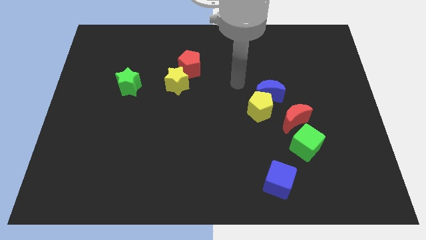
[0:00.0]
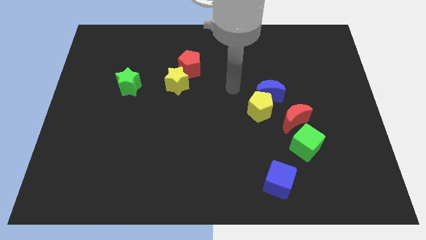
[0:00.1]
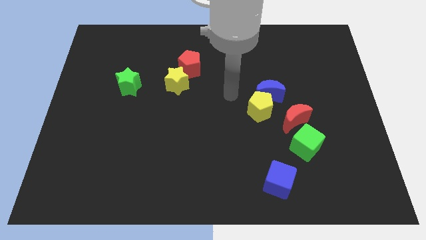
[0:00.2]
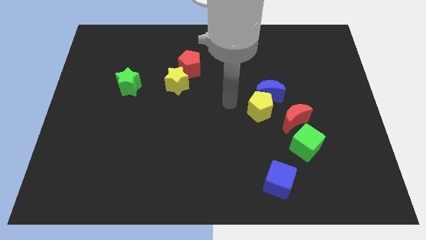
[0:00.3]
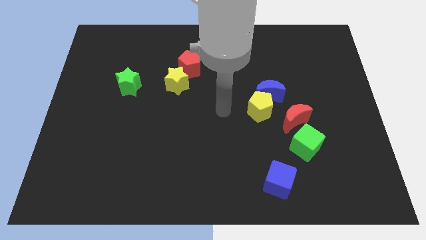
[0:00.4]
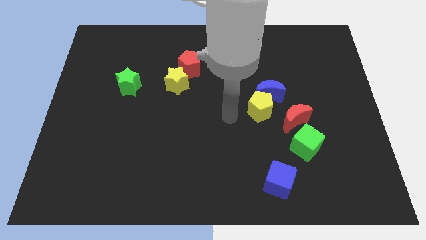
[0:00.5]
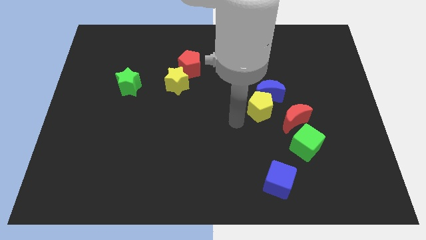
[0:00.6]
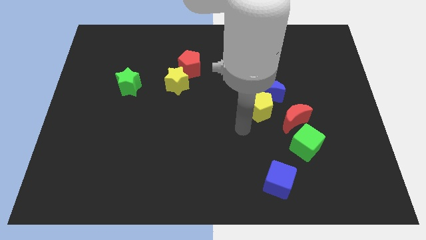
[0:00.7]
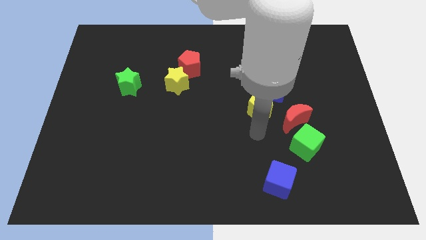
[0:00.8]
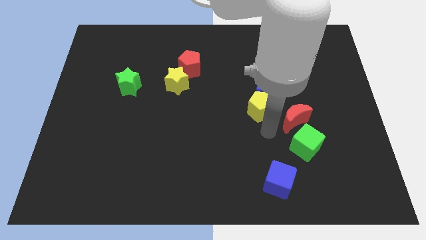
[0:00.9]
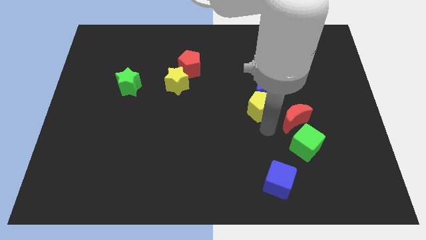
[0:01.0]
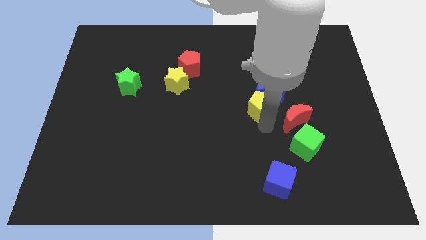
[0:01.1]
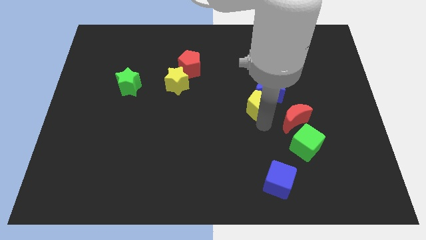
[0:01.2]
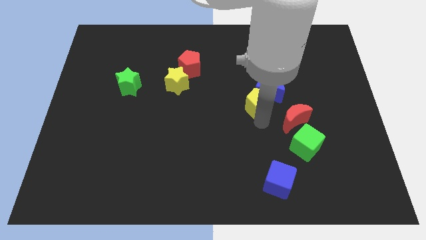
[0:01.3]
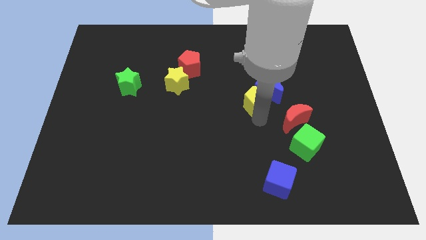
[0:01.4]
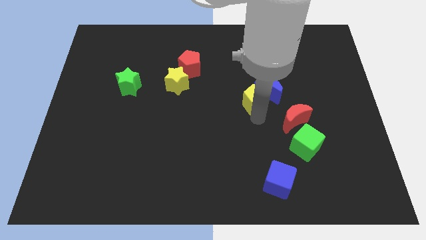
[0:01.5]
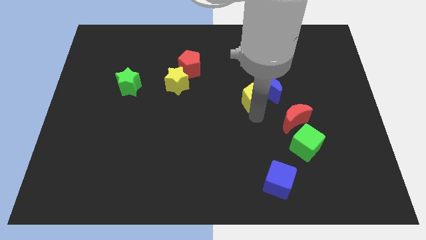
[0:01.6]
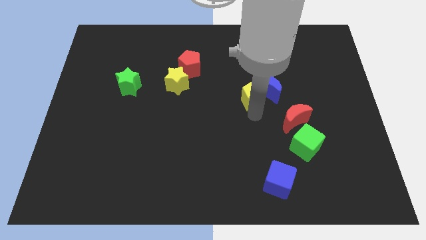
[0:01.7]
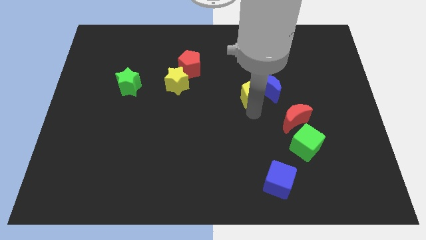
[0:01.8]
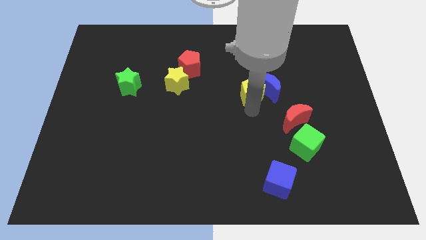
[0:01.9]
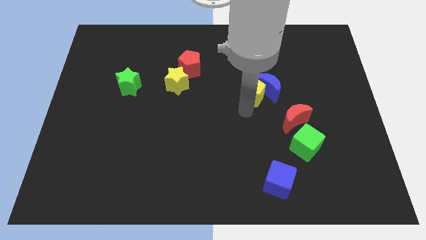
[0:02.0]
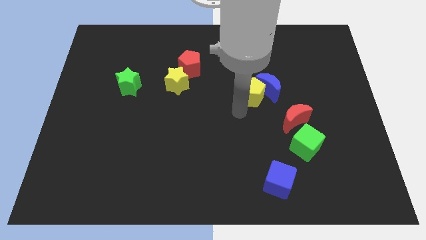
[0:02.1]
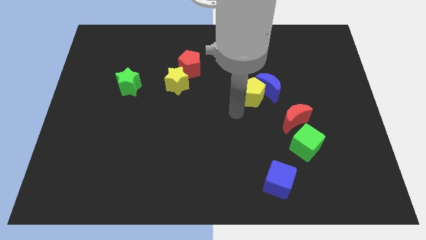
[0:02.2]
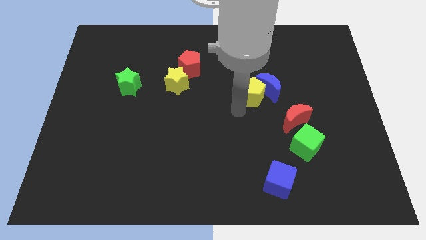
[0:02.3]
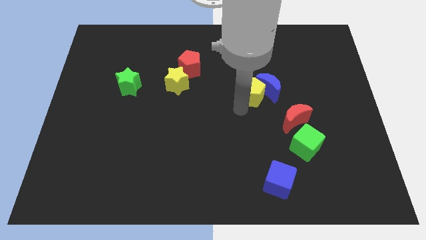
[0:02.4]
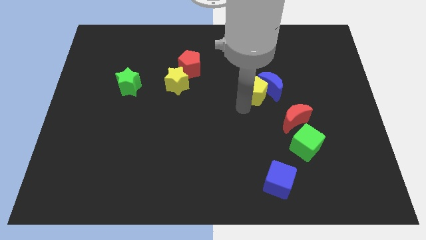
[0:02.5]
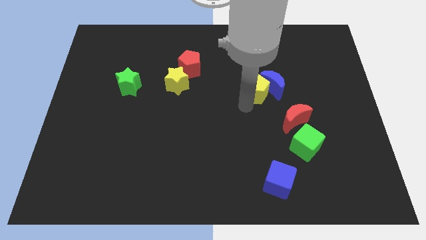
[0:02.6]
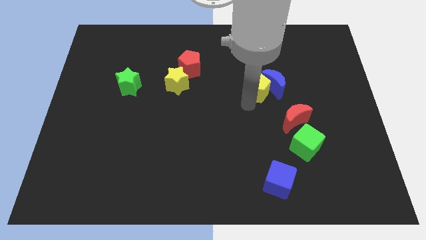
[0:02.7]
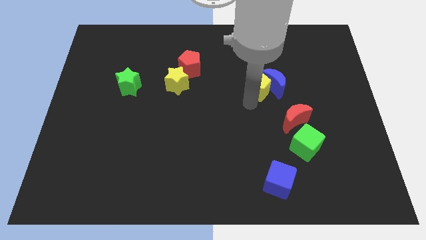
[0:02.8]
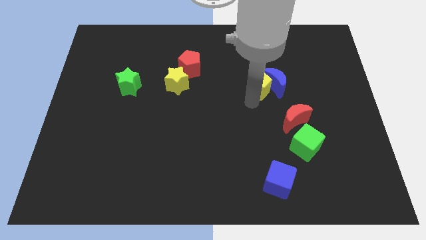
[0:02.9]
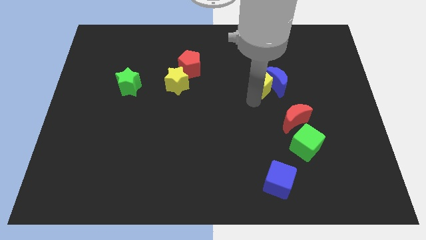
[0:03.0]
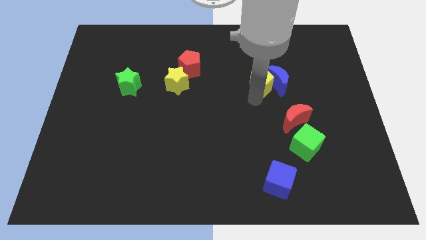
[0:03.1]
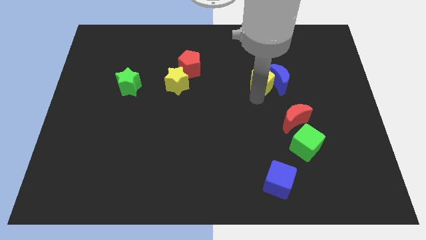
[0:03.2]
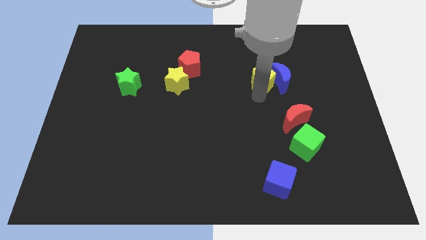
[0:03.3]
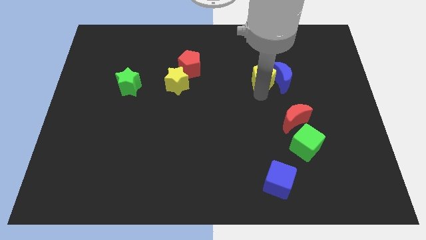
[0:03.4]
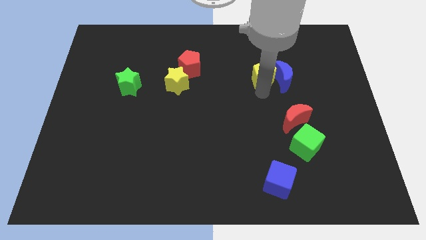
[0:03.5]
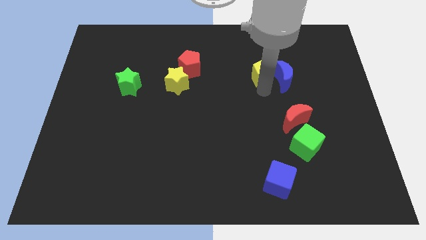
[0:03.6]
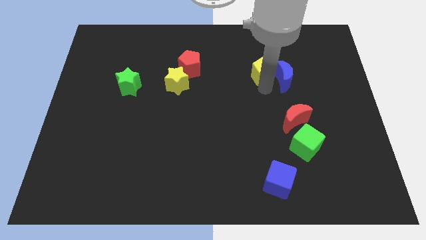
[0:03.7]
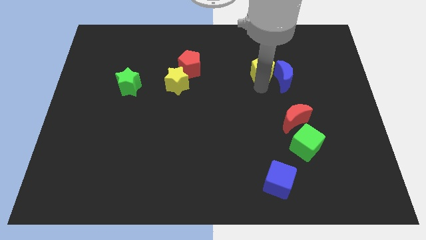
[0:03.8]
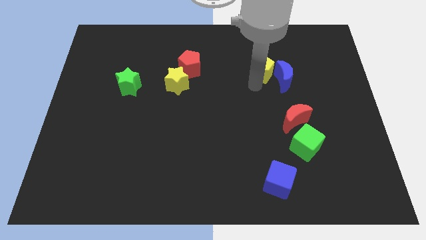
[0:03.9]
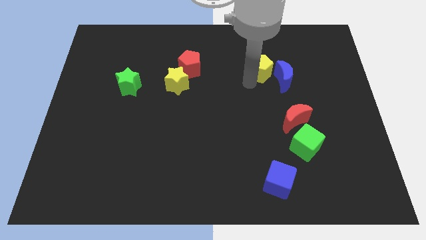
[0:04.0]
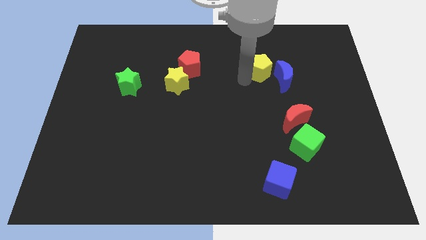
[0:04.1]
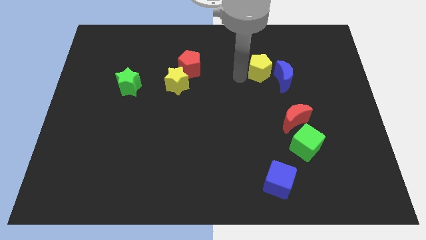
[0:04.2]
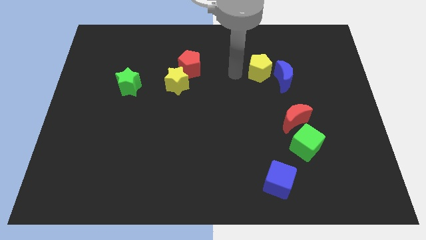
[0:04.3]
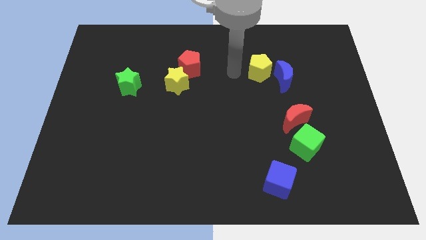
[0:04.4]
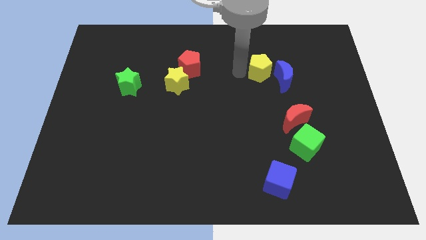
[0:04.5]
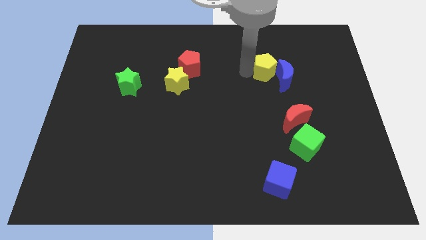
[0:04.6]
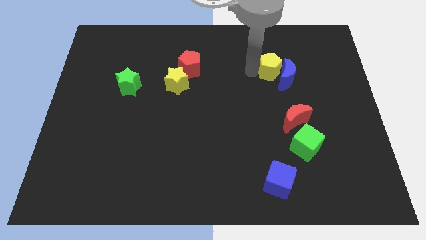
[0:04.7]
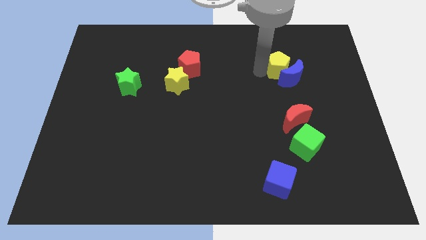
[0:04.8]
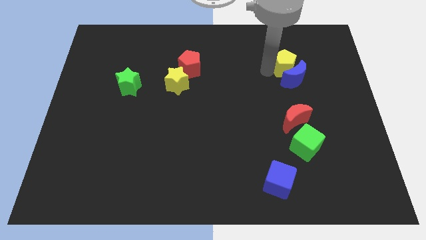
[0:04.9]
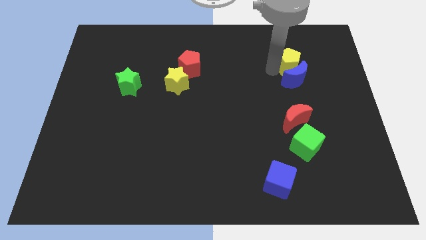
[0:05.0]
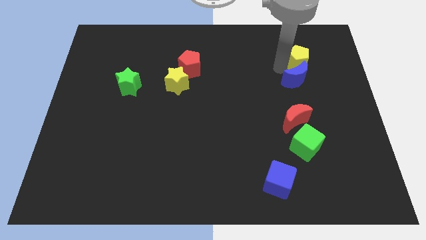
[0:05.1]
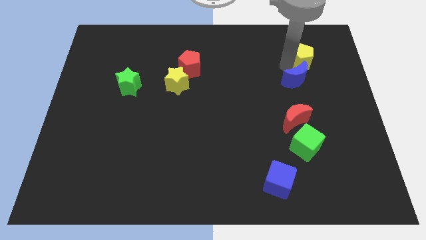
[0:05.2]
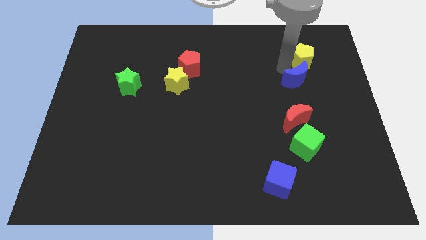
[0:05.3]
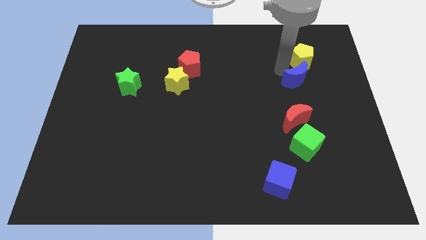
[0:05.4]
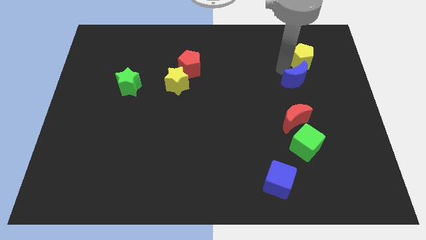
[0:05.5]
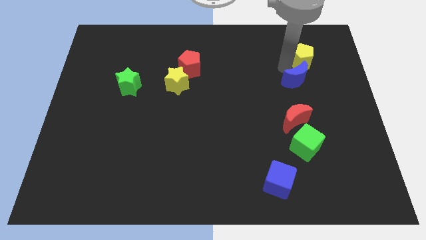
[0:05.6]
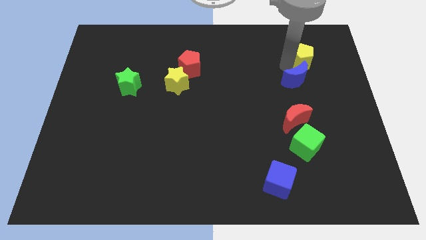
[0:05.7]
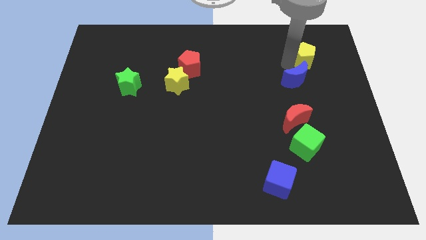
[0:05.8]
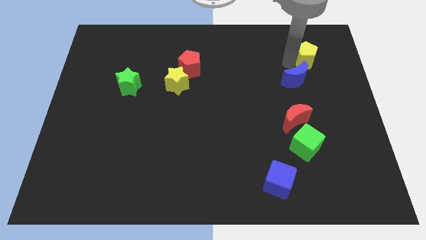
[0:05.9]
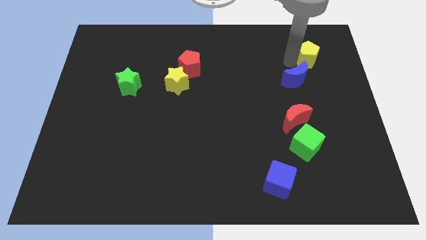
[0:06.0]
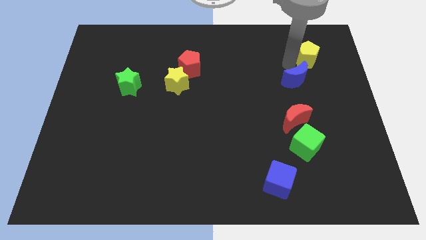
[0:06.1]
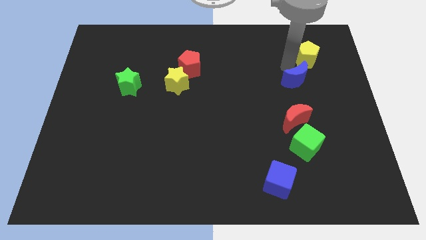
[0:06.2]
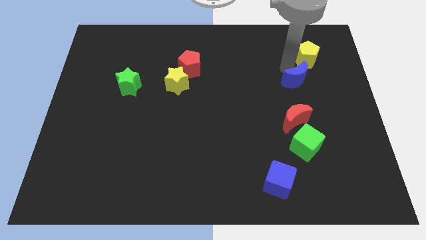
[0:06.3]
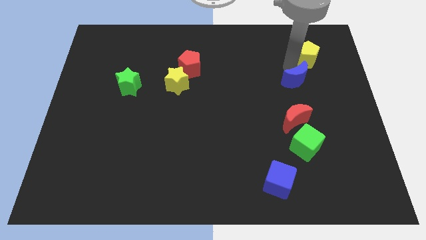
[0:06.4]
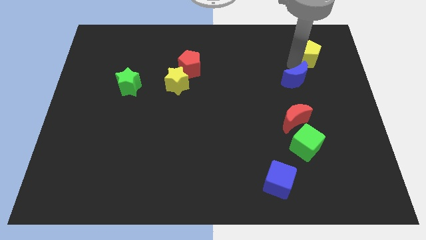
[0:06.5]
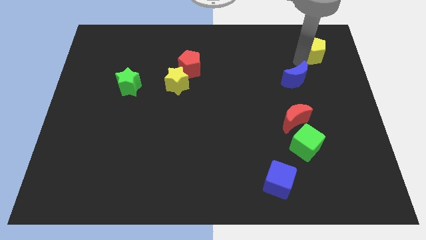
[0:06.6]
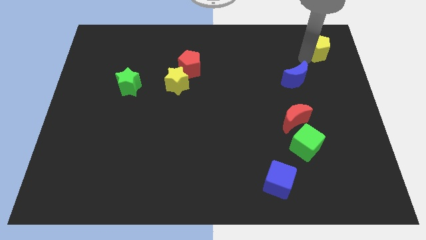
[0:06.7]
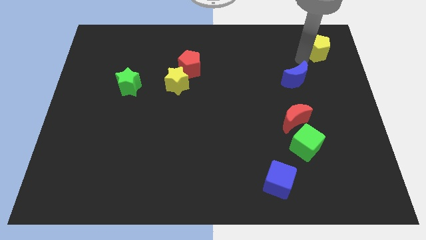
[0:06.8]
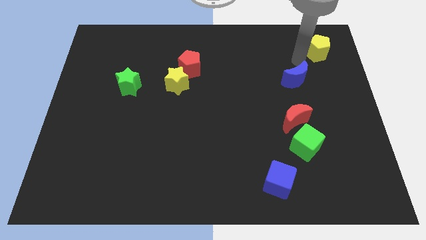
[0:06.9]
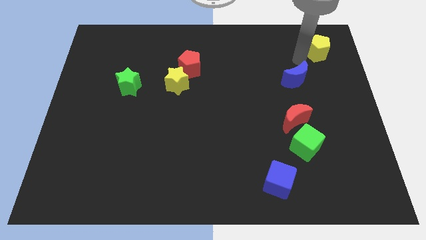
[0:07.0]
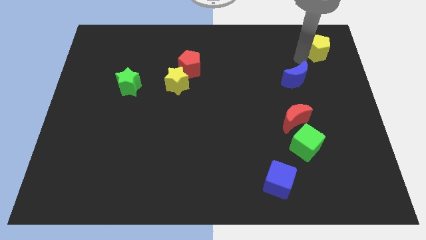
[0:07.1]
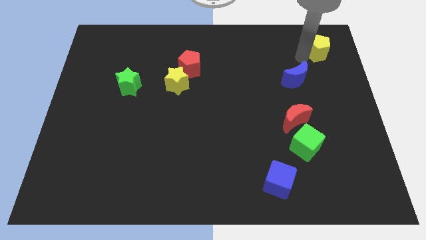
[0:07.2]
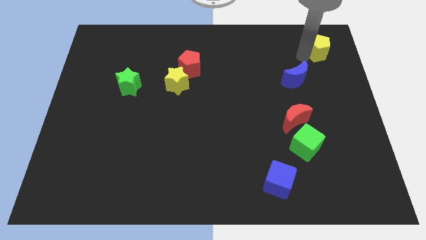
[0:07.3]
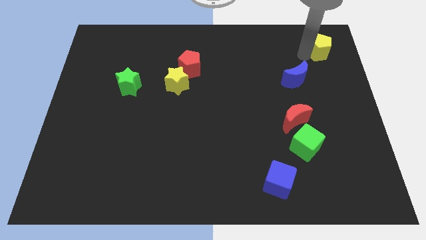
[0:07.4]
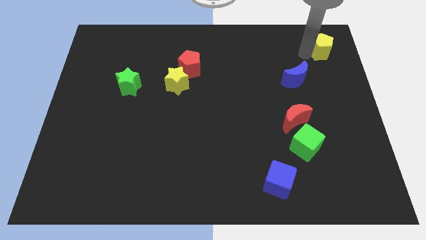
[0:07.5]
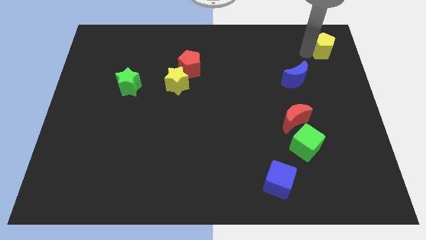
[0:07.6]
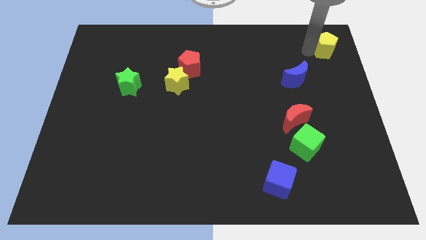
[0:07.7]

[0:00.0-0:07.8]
put the yellow pentagon to the upper right corner
